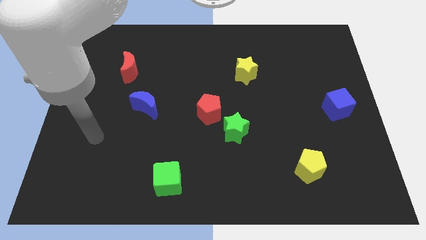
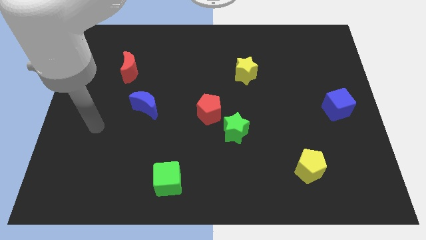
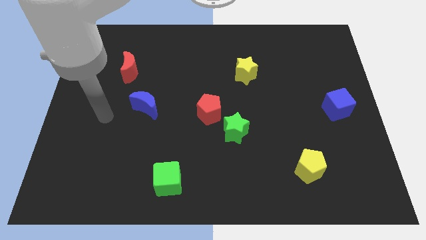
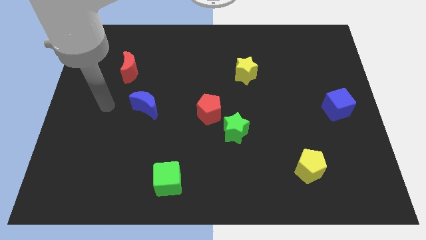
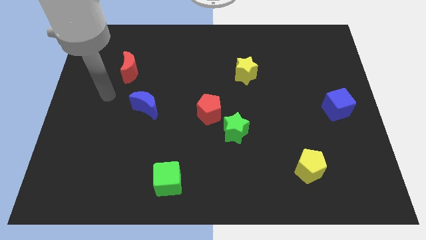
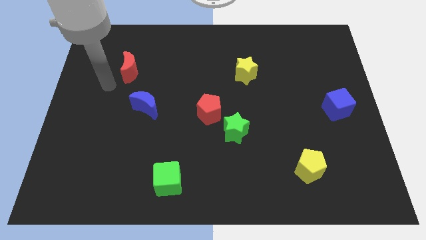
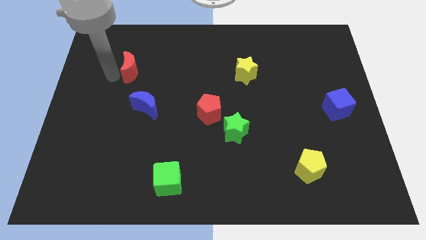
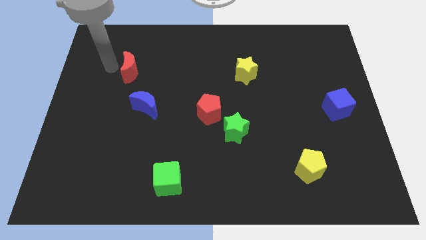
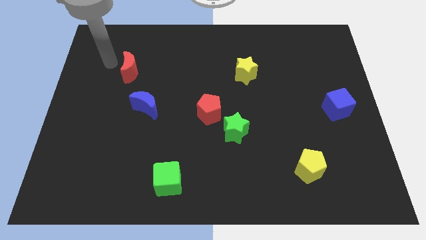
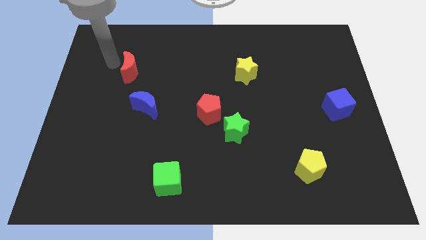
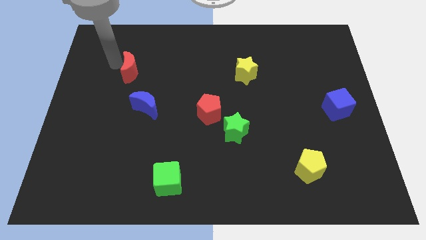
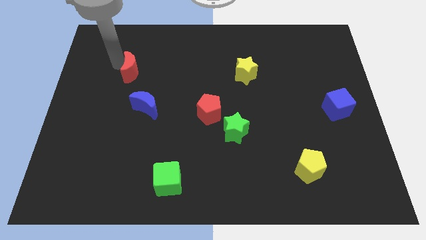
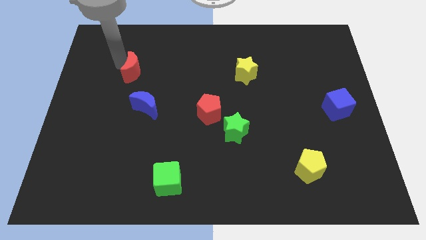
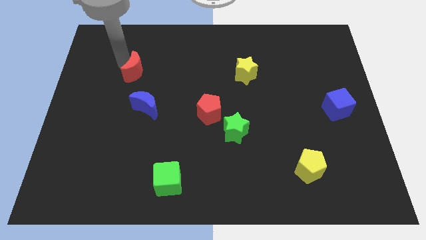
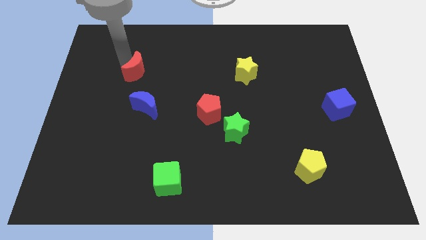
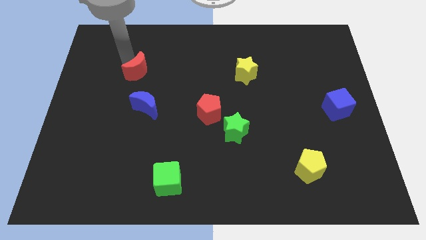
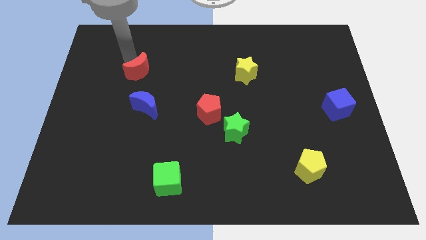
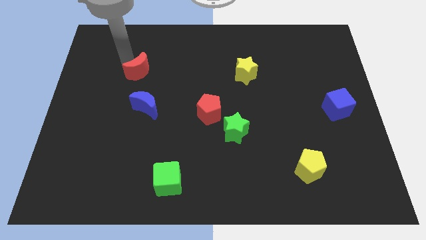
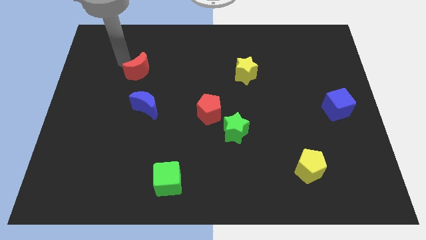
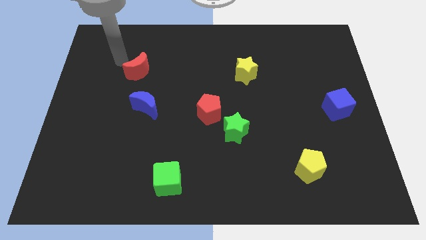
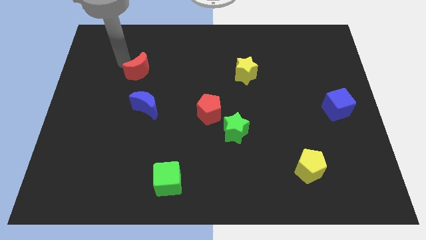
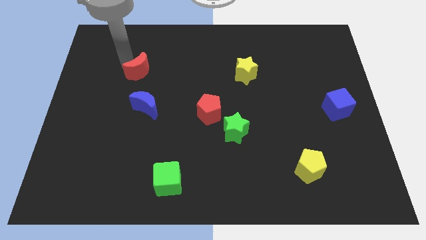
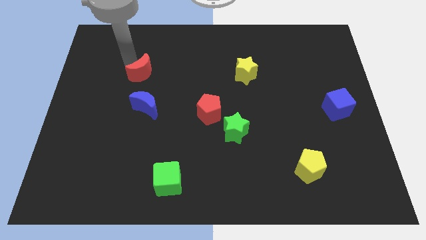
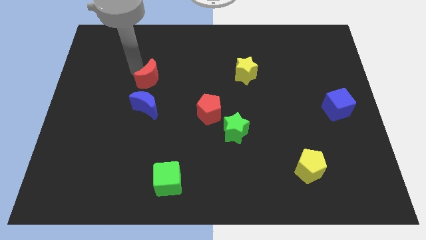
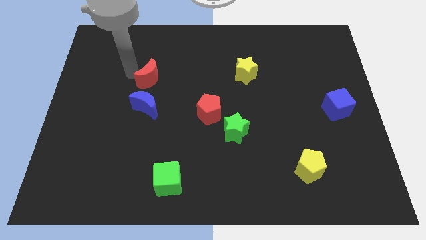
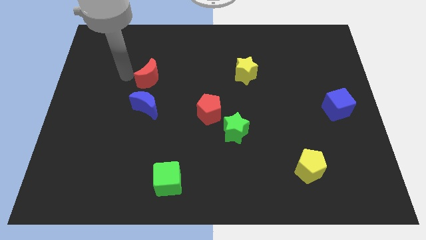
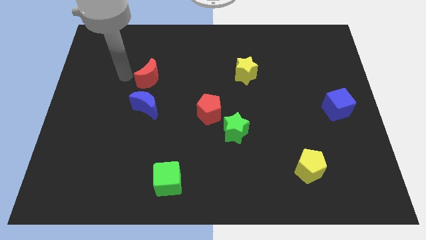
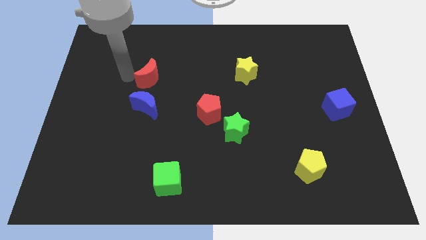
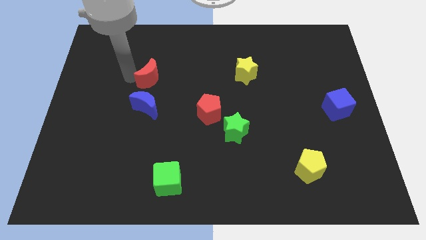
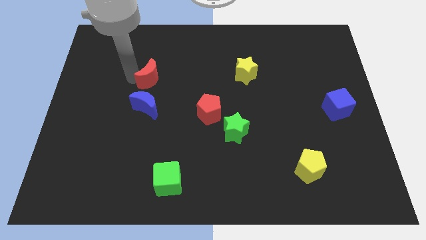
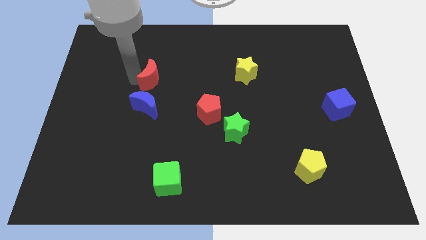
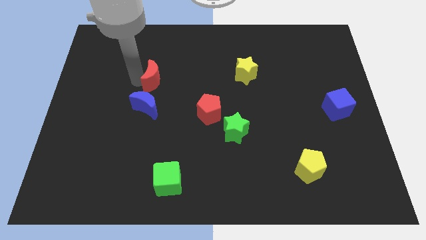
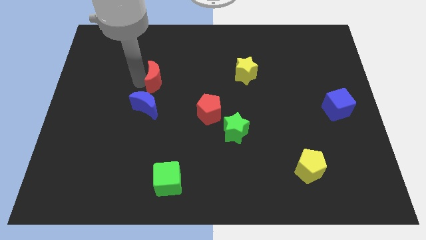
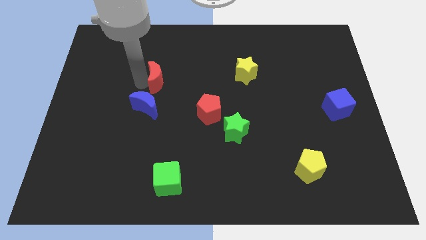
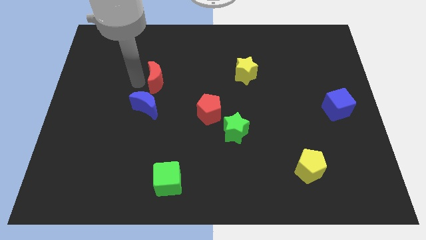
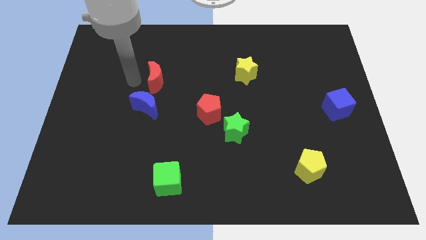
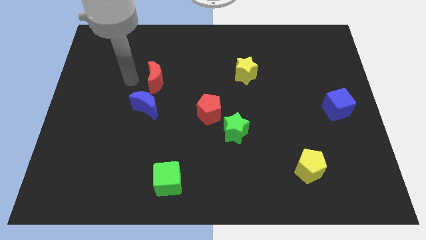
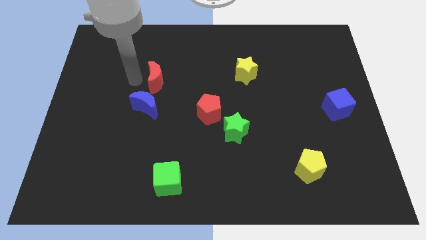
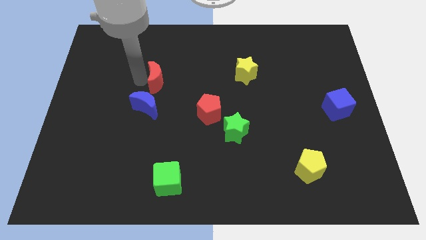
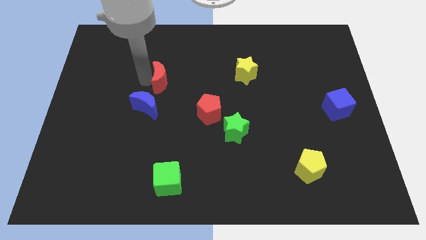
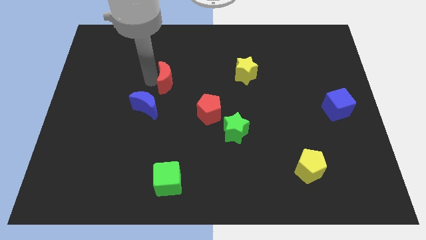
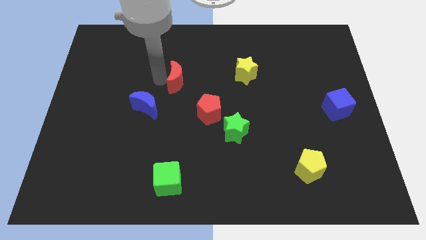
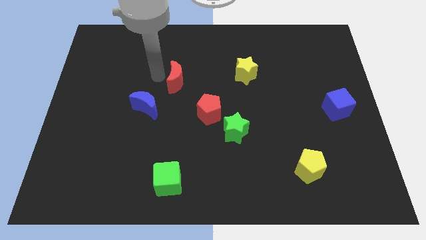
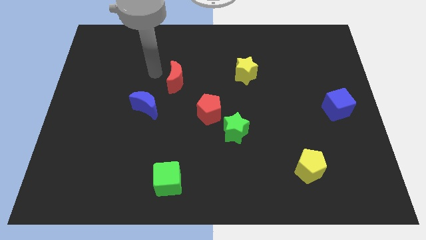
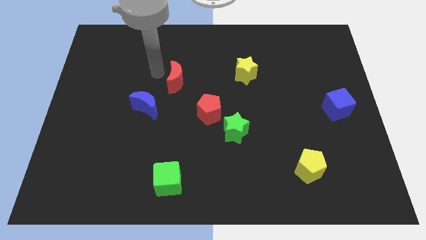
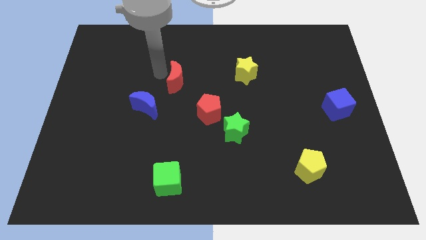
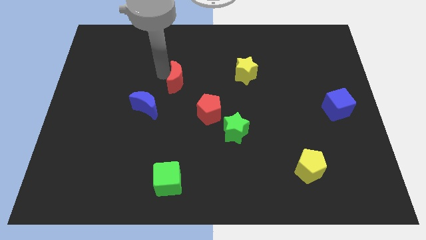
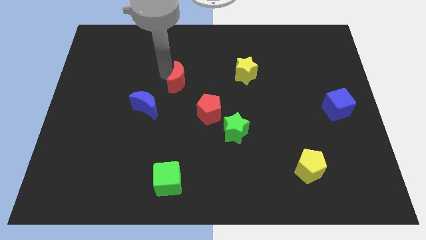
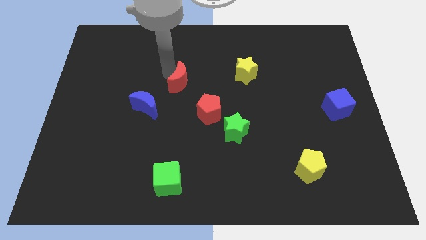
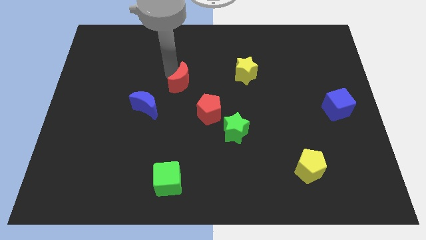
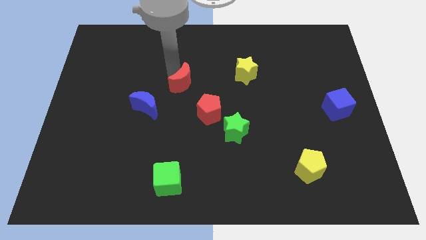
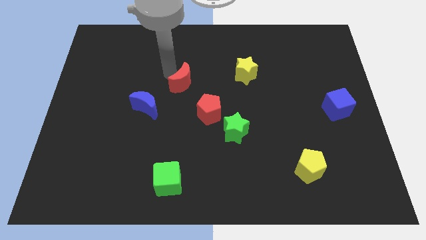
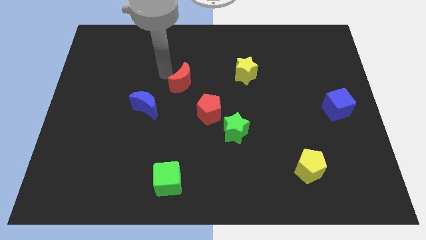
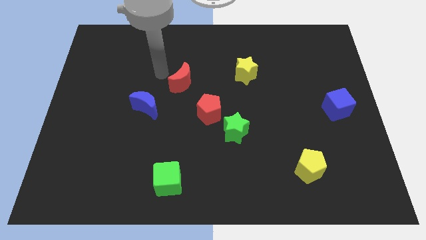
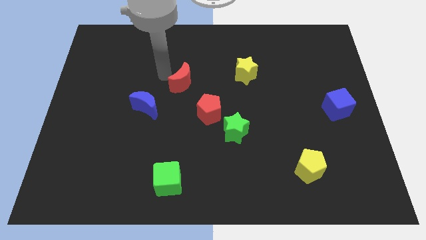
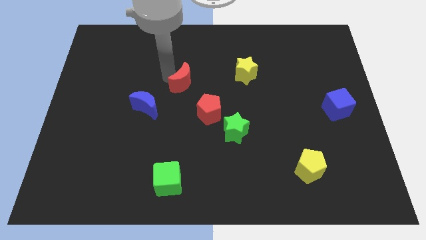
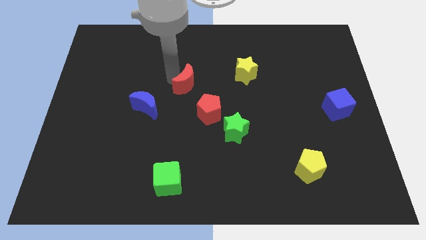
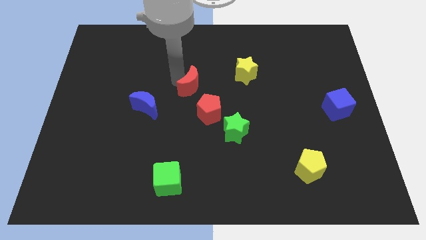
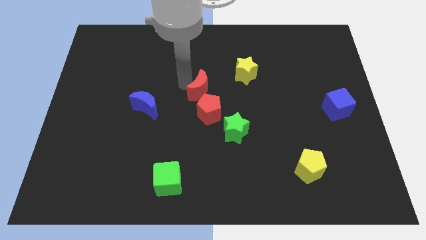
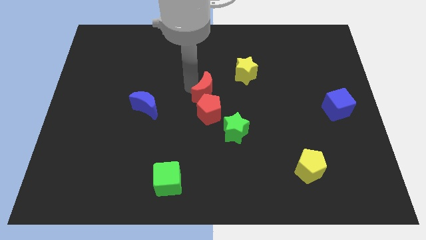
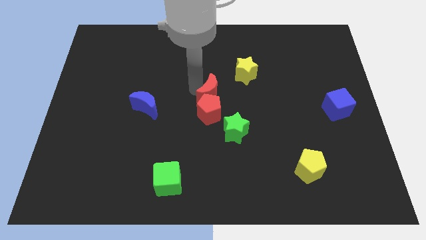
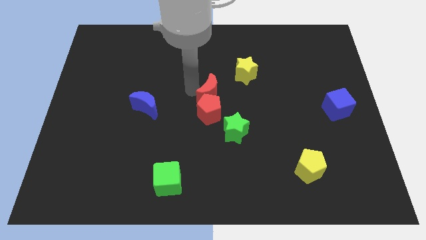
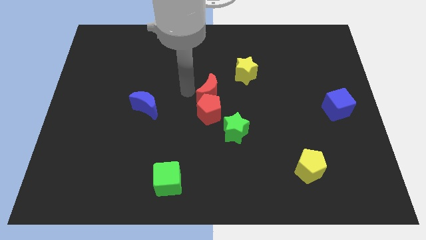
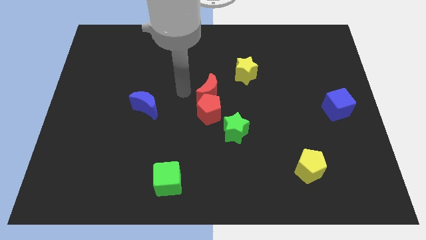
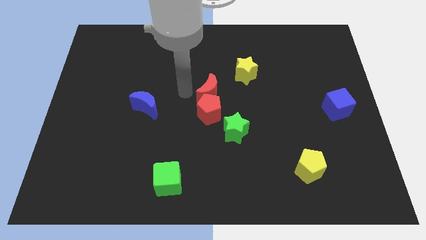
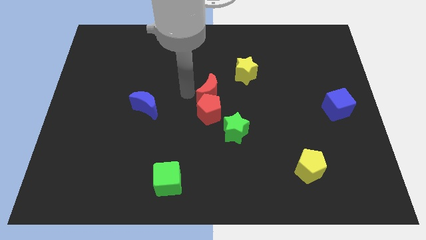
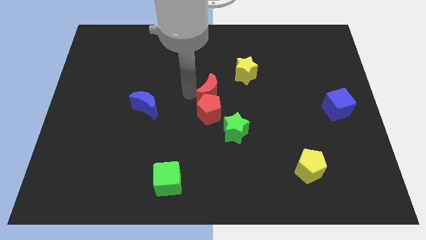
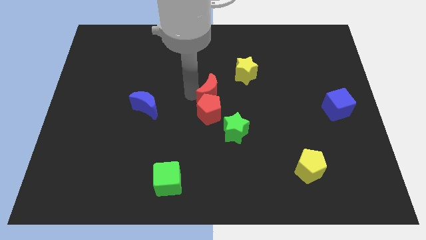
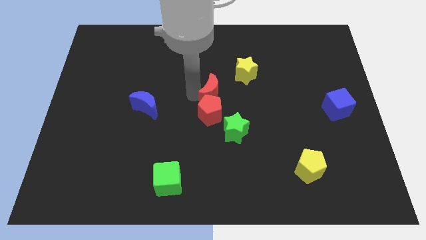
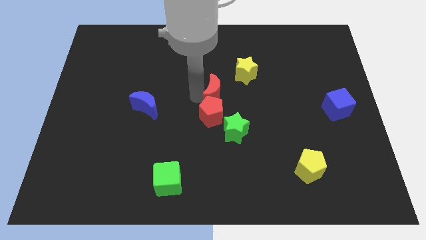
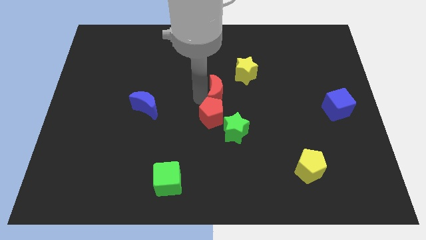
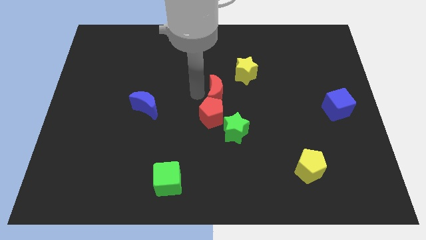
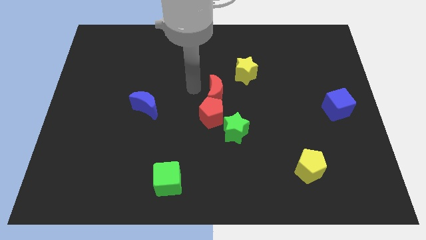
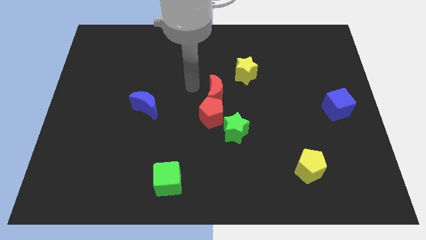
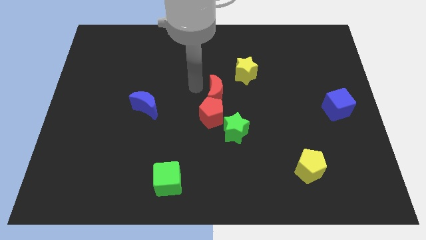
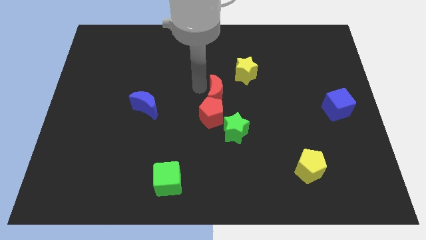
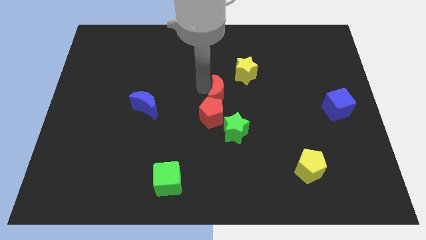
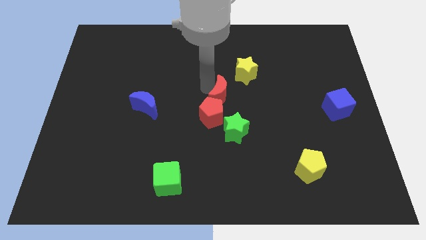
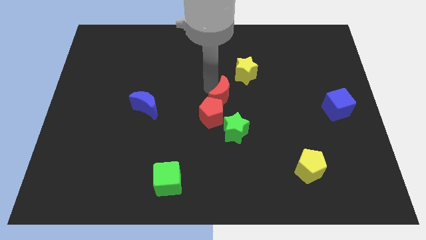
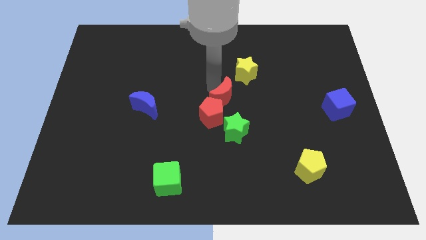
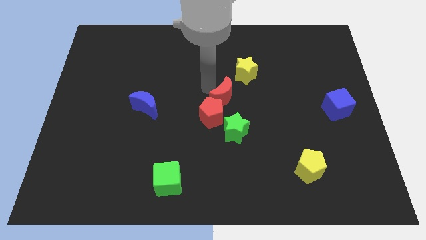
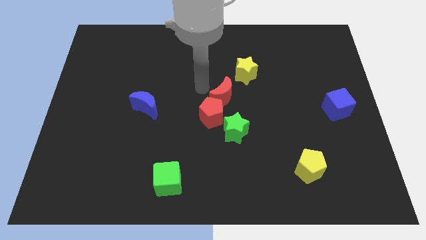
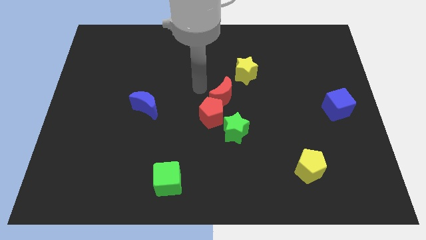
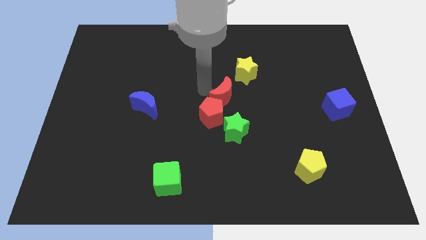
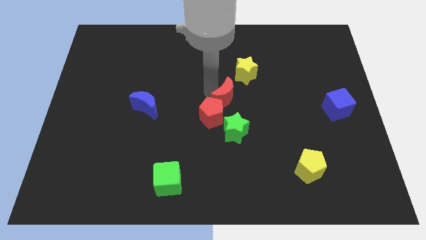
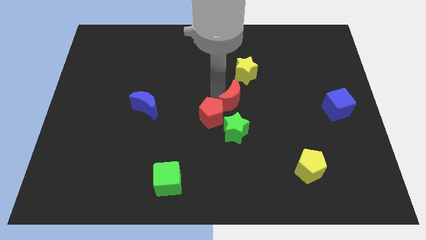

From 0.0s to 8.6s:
move the red moon below the yellow star
